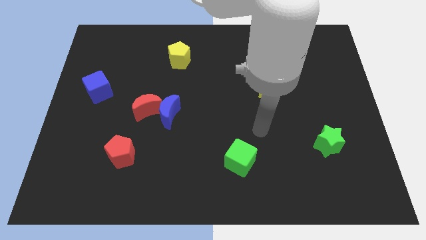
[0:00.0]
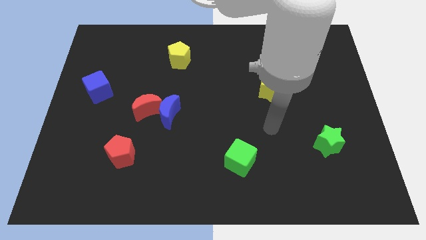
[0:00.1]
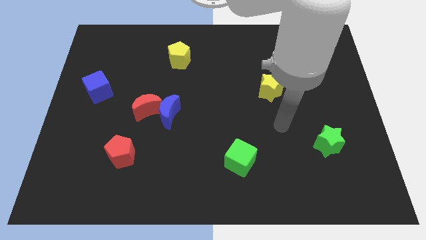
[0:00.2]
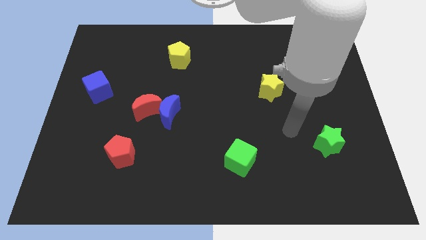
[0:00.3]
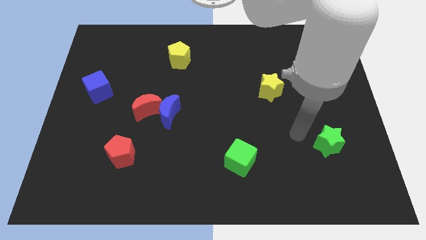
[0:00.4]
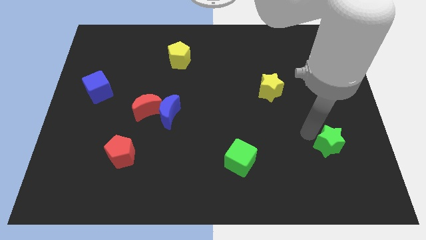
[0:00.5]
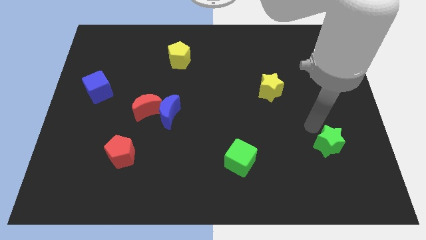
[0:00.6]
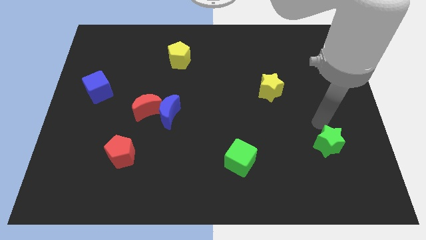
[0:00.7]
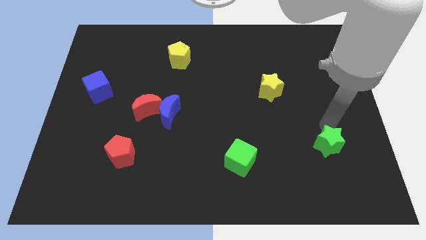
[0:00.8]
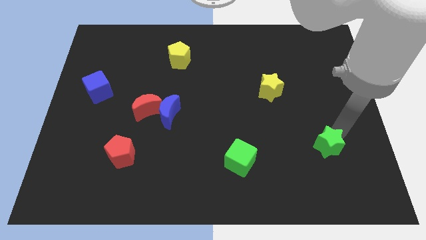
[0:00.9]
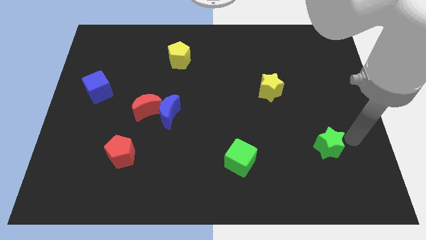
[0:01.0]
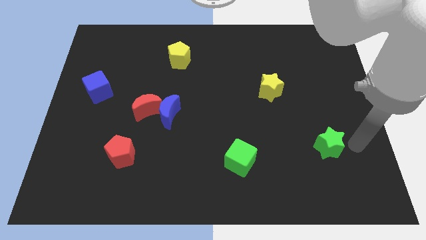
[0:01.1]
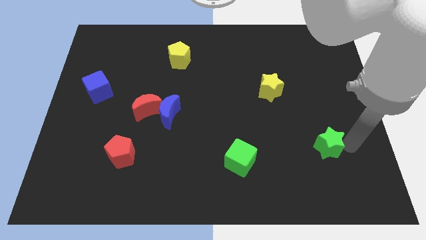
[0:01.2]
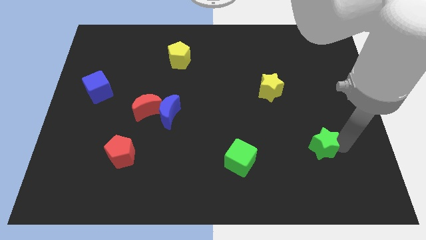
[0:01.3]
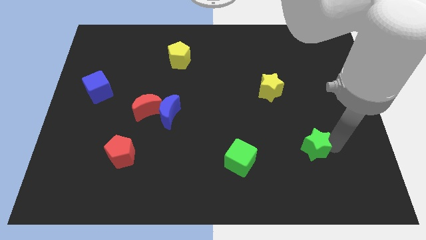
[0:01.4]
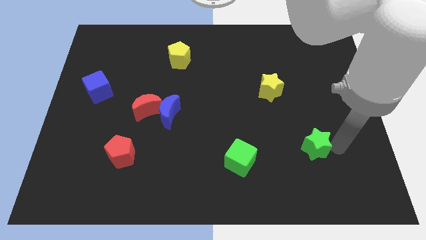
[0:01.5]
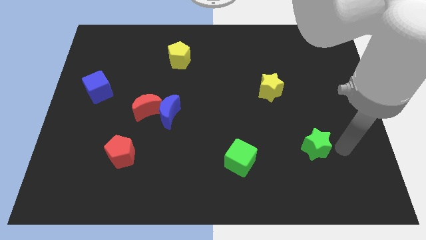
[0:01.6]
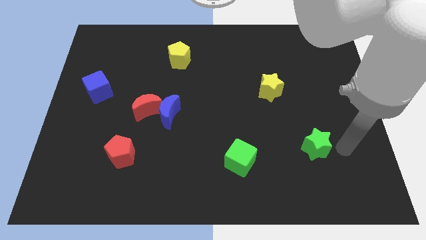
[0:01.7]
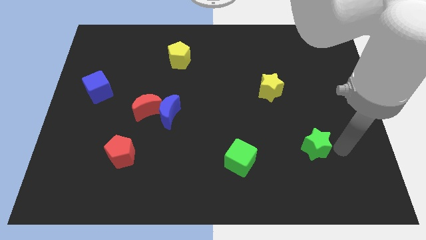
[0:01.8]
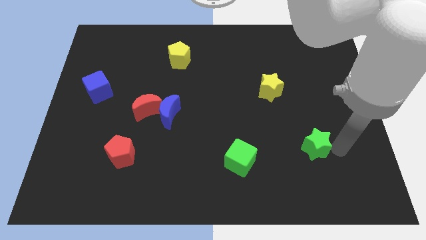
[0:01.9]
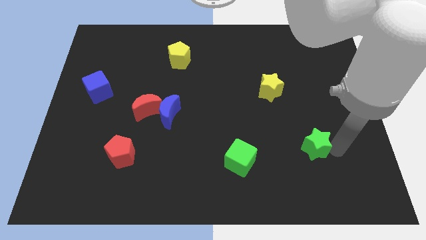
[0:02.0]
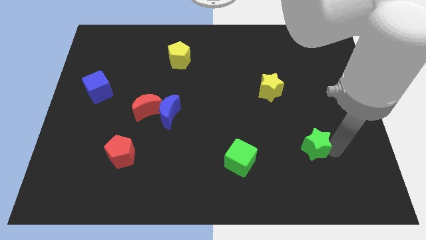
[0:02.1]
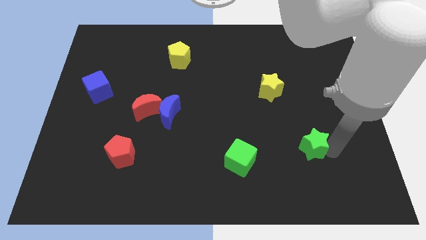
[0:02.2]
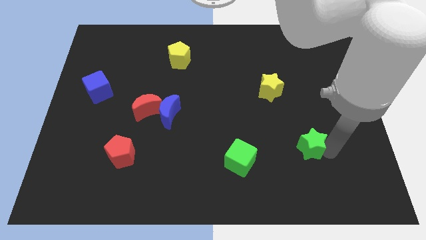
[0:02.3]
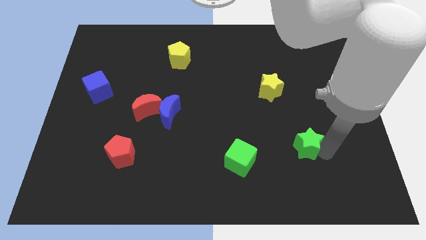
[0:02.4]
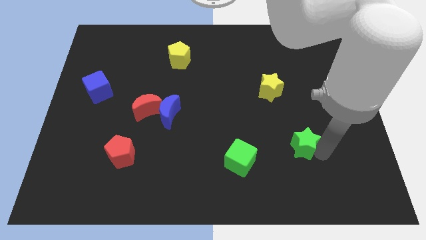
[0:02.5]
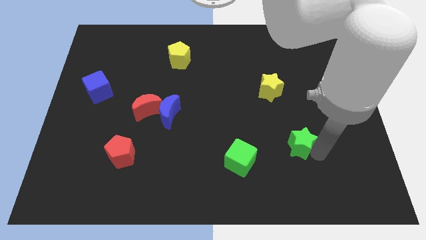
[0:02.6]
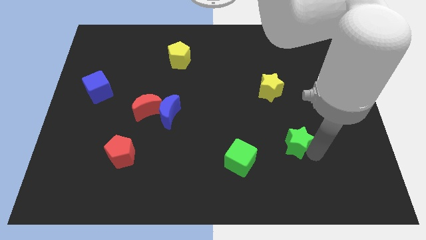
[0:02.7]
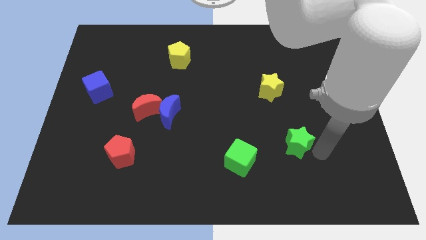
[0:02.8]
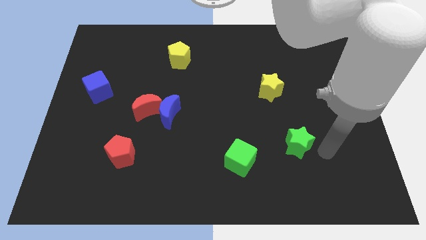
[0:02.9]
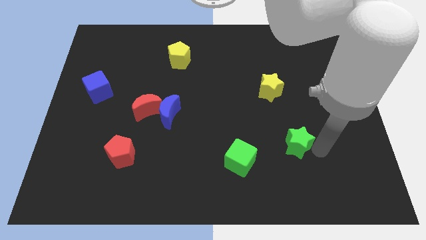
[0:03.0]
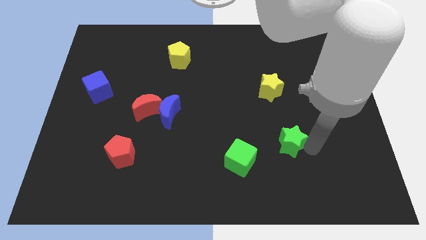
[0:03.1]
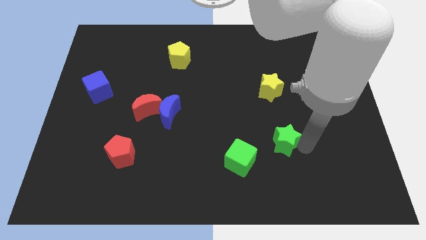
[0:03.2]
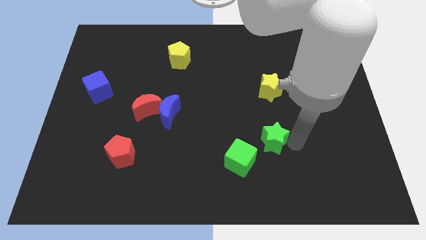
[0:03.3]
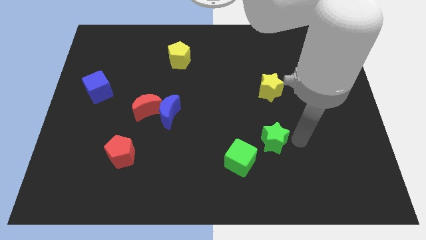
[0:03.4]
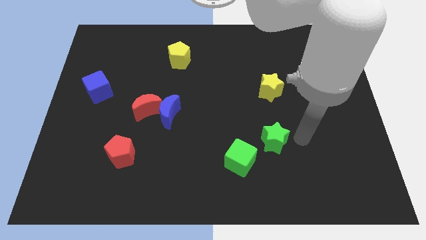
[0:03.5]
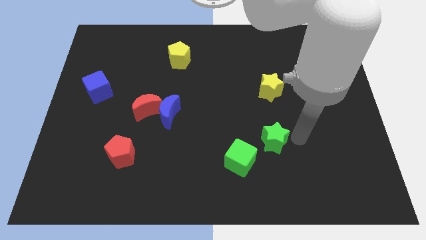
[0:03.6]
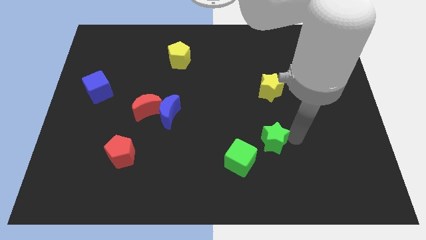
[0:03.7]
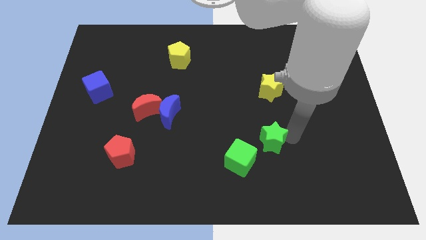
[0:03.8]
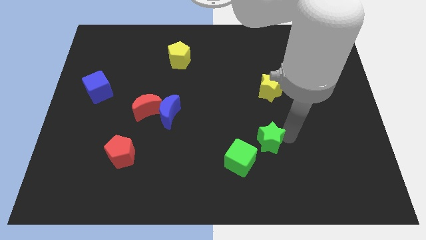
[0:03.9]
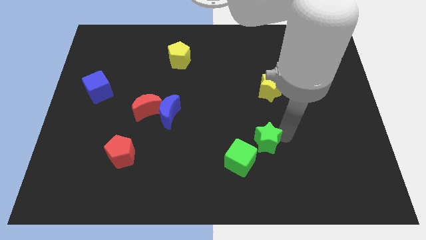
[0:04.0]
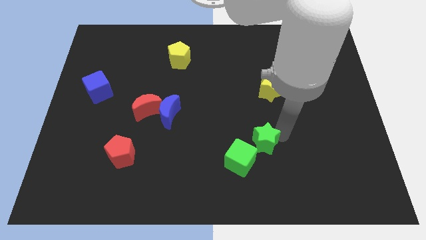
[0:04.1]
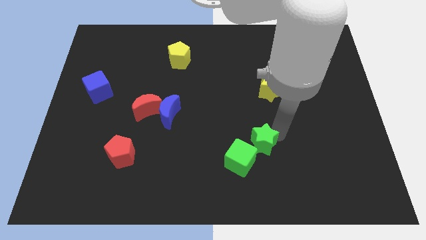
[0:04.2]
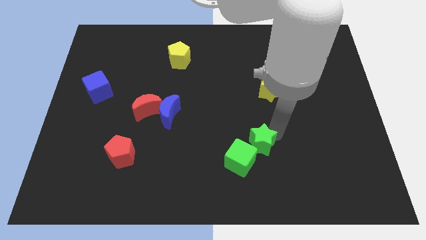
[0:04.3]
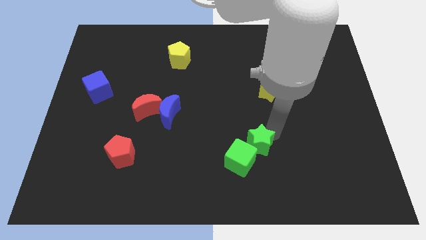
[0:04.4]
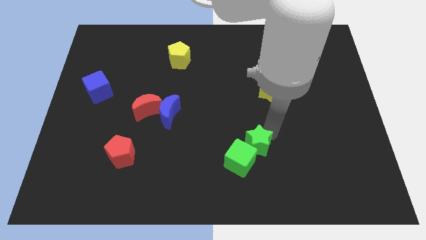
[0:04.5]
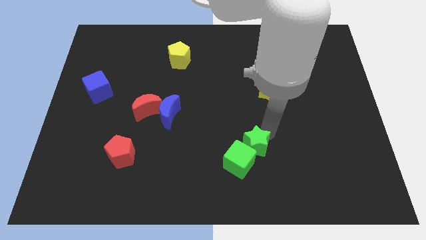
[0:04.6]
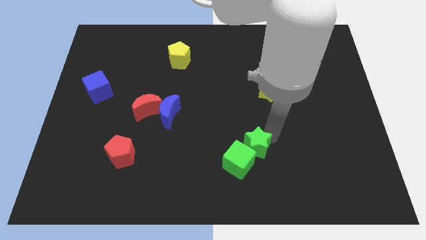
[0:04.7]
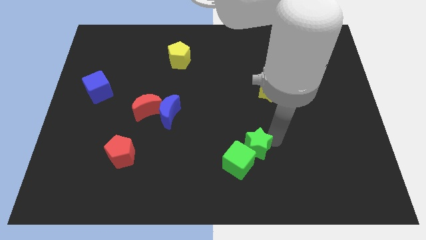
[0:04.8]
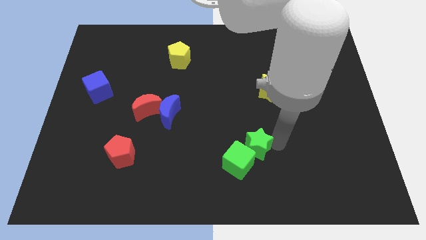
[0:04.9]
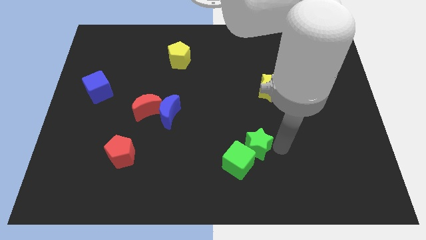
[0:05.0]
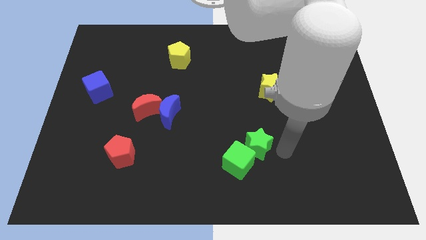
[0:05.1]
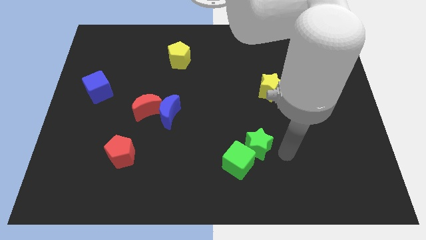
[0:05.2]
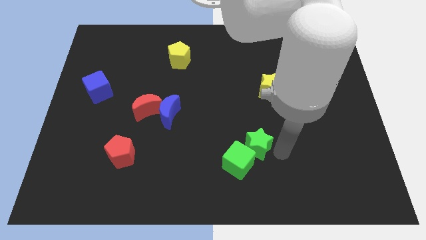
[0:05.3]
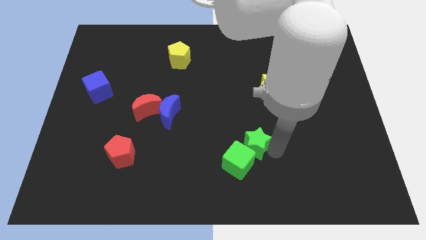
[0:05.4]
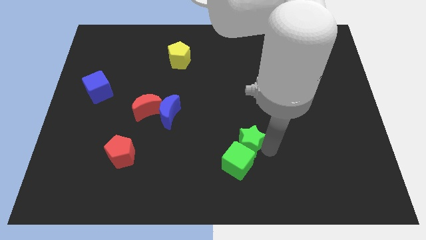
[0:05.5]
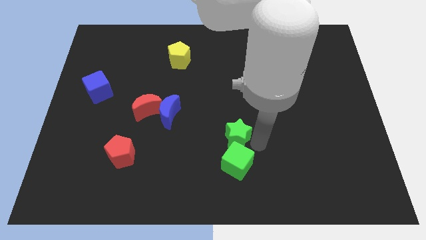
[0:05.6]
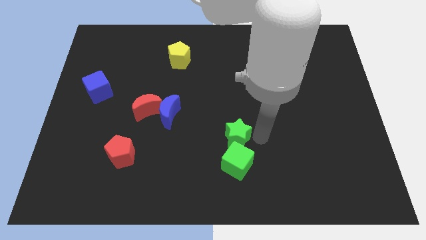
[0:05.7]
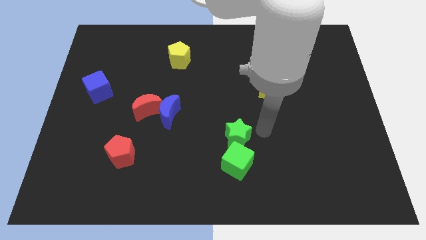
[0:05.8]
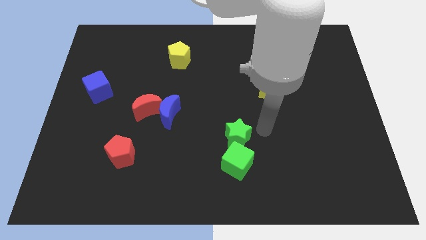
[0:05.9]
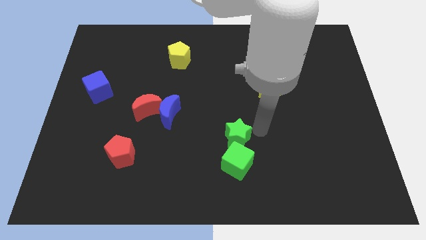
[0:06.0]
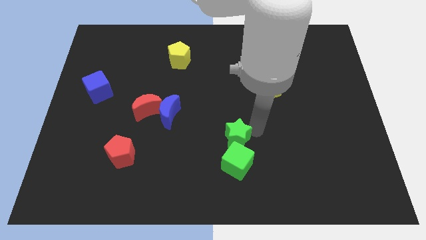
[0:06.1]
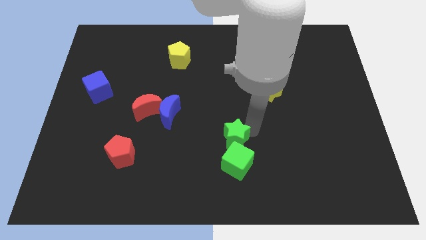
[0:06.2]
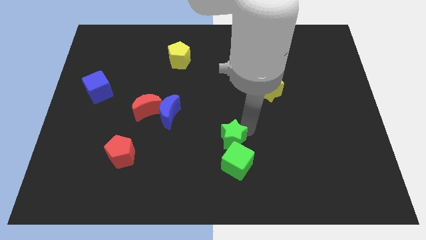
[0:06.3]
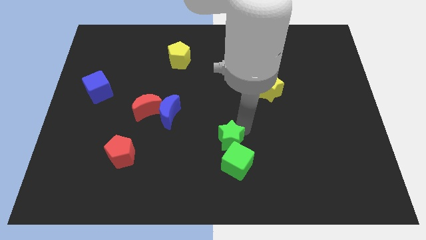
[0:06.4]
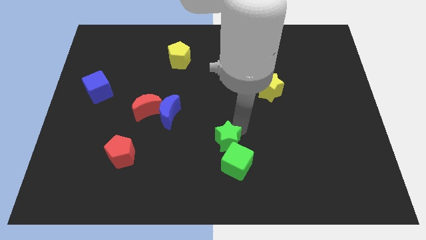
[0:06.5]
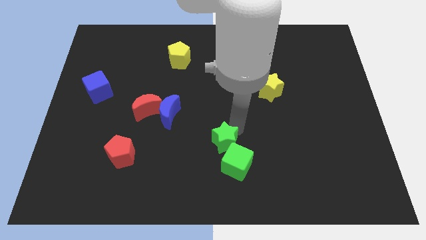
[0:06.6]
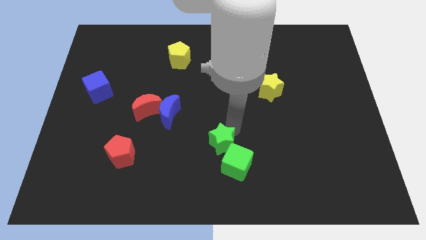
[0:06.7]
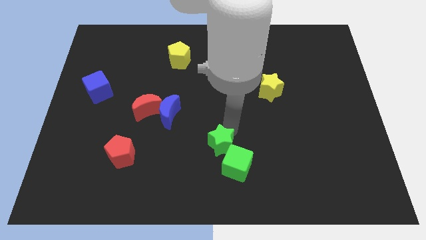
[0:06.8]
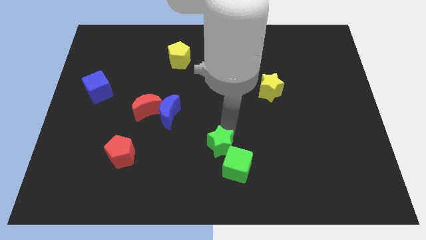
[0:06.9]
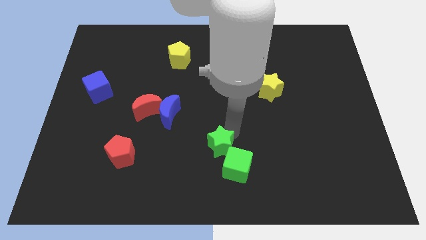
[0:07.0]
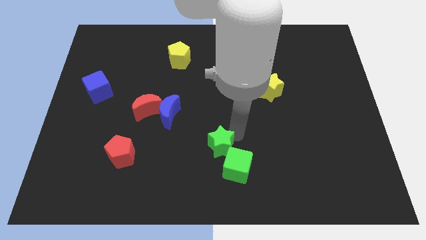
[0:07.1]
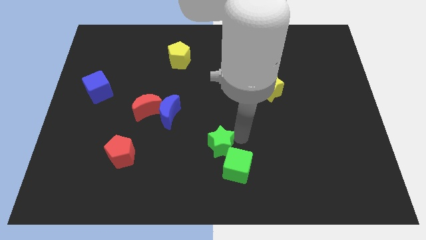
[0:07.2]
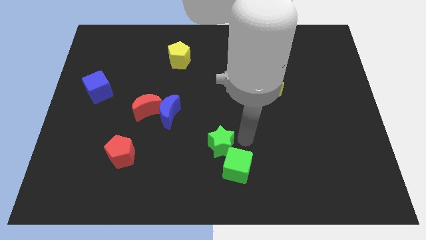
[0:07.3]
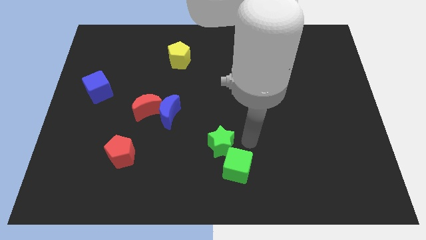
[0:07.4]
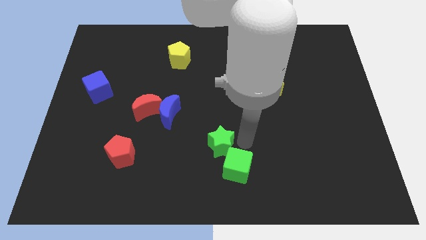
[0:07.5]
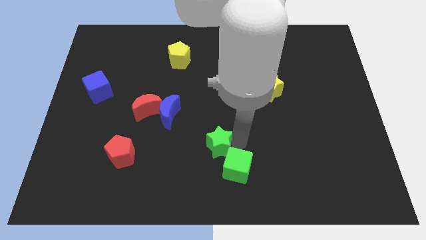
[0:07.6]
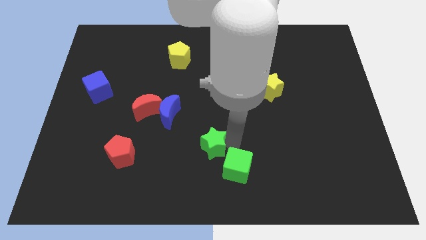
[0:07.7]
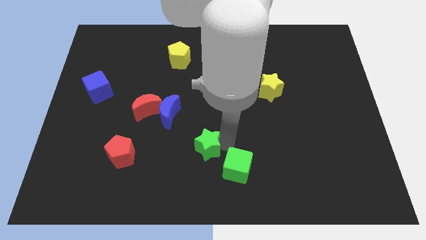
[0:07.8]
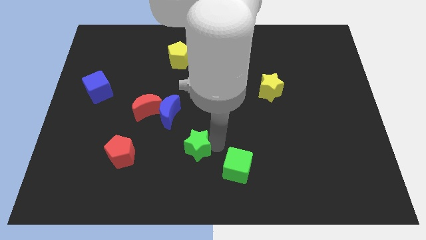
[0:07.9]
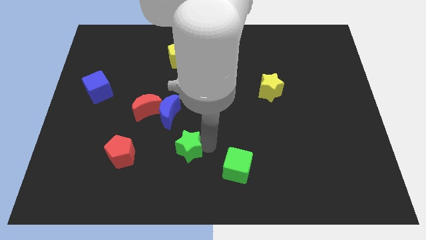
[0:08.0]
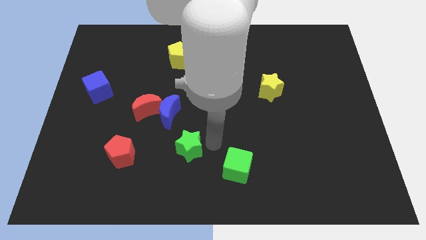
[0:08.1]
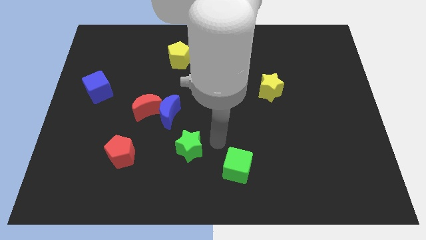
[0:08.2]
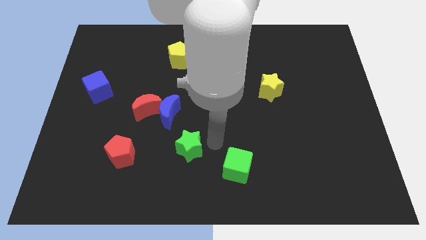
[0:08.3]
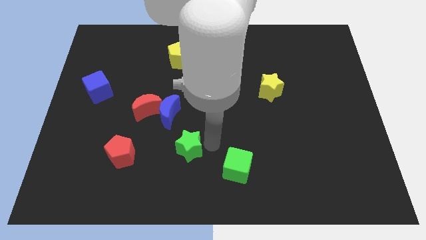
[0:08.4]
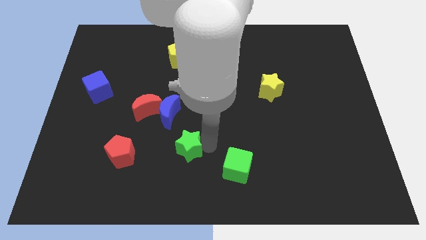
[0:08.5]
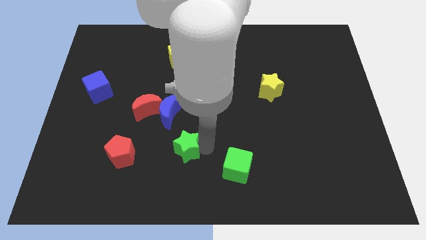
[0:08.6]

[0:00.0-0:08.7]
move the green star to the bottom side of the blue moon
